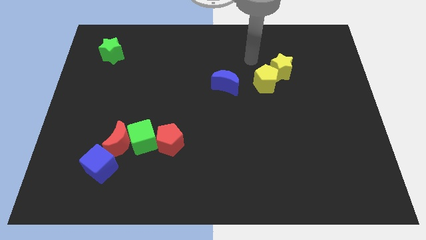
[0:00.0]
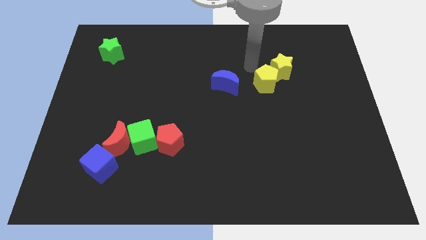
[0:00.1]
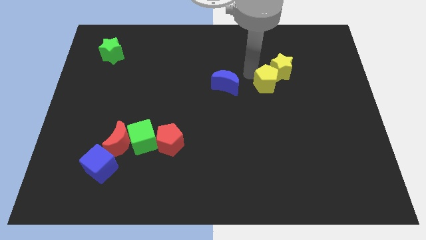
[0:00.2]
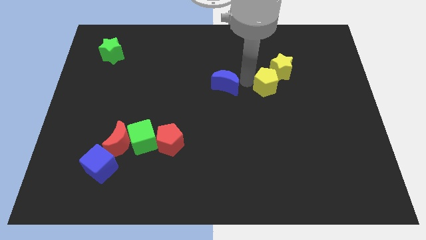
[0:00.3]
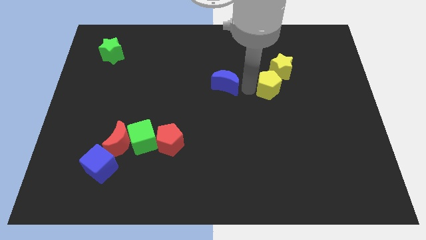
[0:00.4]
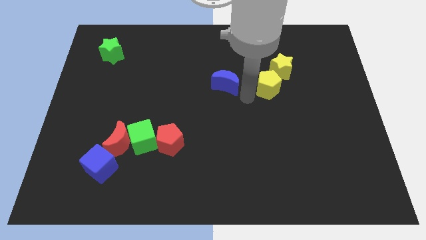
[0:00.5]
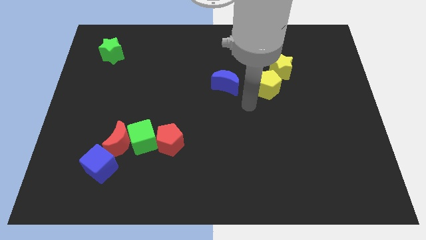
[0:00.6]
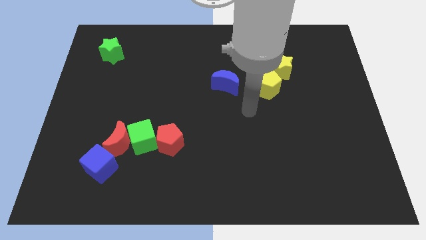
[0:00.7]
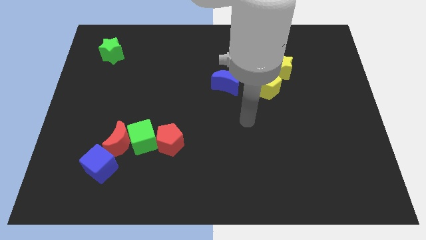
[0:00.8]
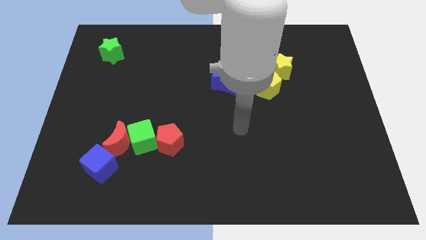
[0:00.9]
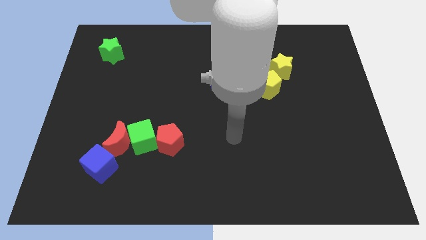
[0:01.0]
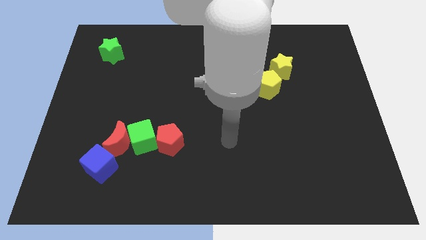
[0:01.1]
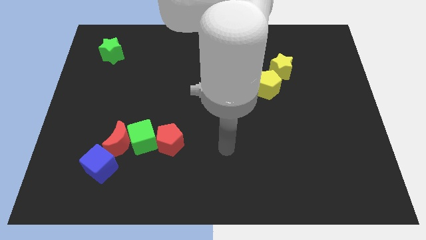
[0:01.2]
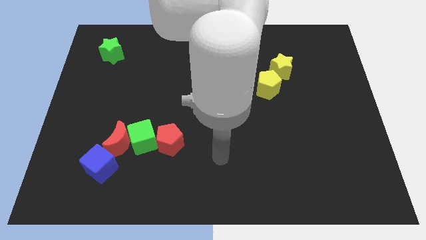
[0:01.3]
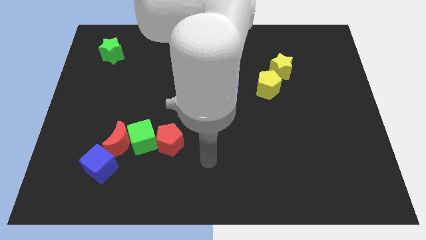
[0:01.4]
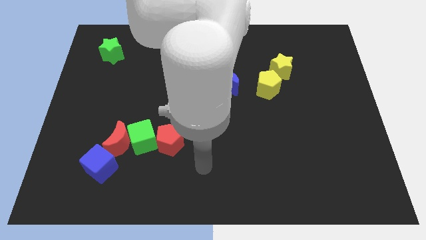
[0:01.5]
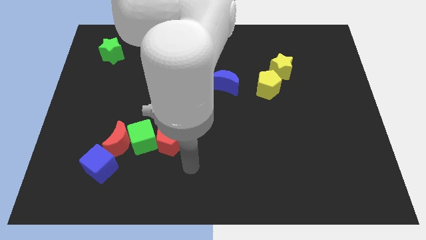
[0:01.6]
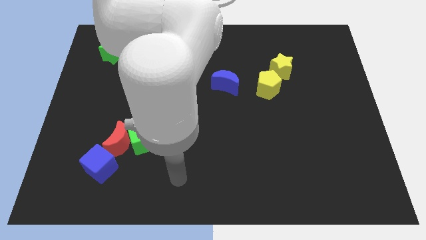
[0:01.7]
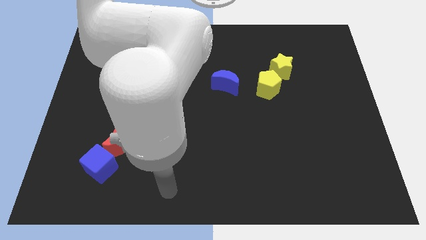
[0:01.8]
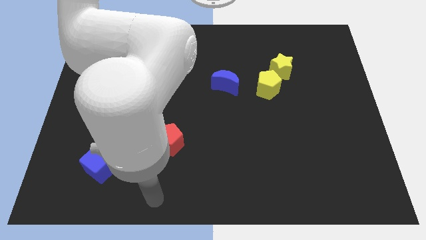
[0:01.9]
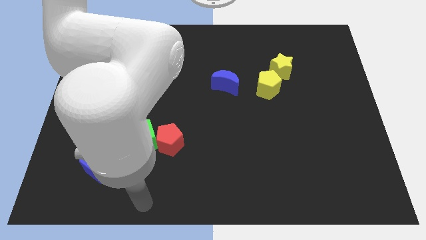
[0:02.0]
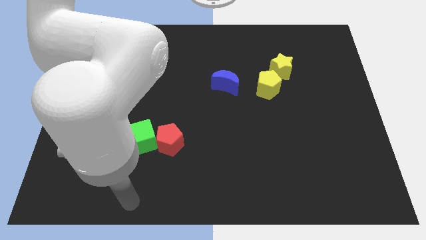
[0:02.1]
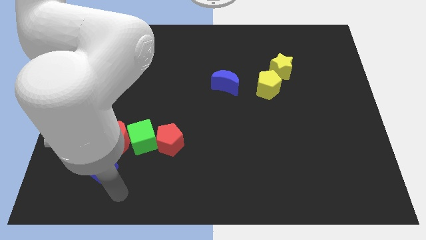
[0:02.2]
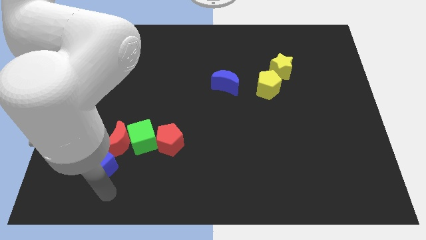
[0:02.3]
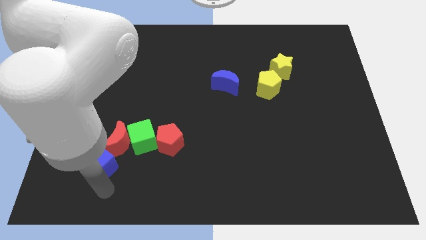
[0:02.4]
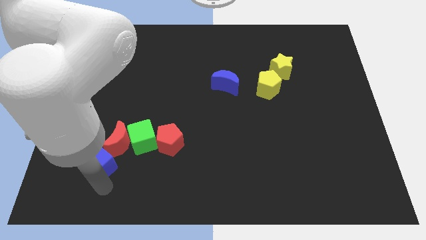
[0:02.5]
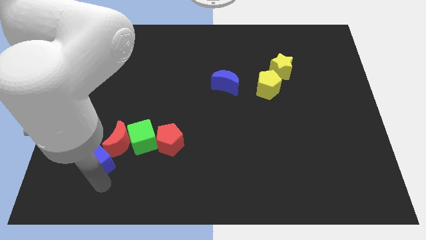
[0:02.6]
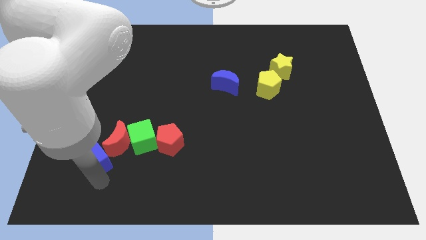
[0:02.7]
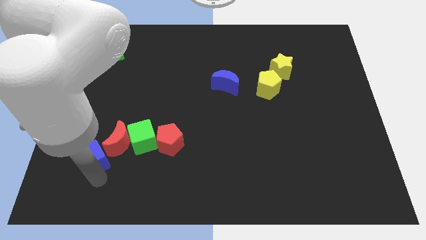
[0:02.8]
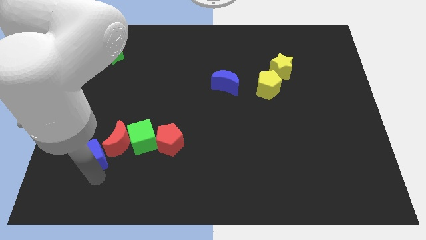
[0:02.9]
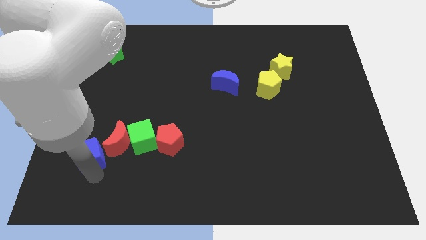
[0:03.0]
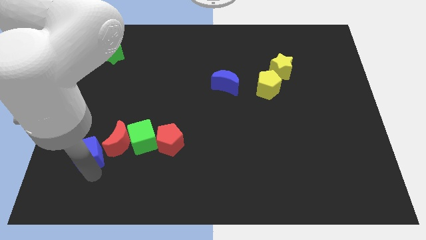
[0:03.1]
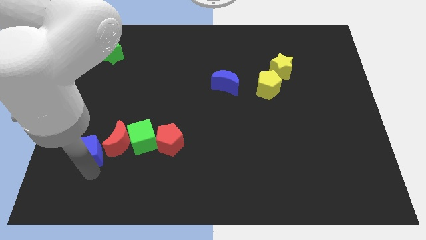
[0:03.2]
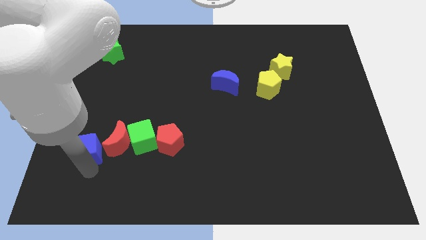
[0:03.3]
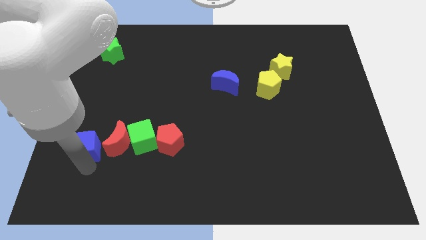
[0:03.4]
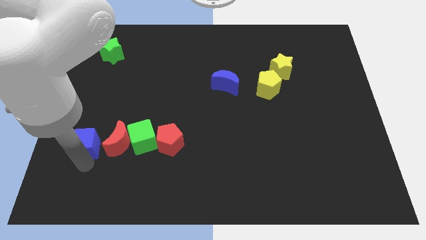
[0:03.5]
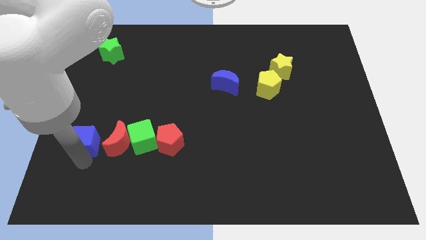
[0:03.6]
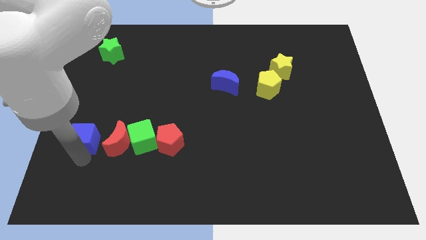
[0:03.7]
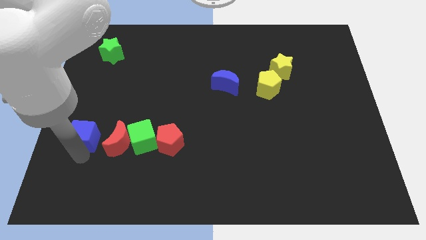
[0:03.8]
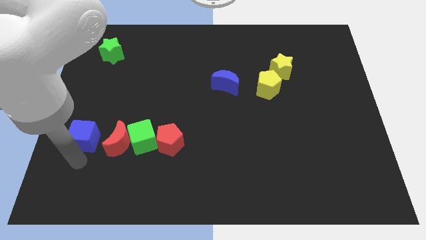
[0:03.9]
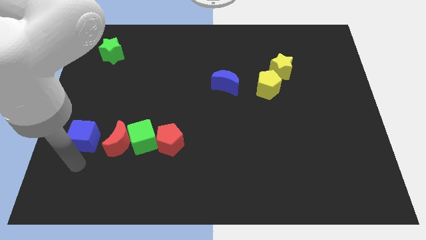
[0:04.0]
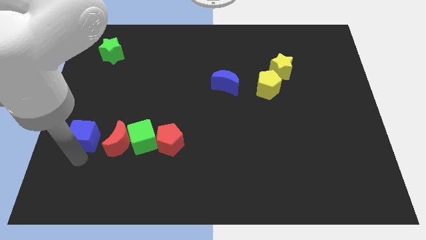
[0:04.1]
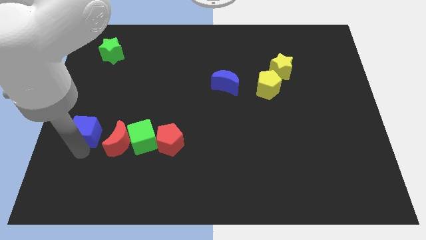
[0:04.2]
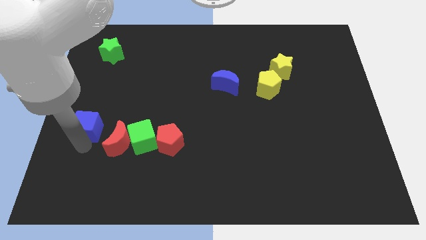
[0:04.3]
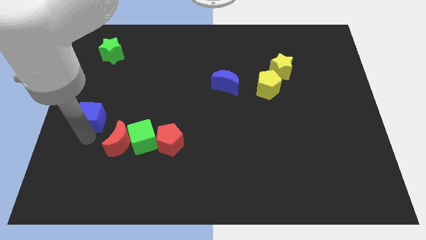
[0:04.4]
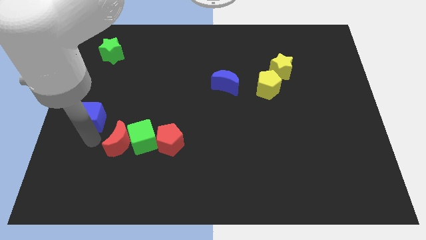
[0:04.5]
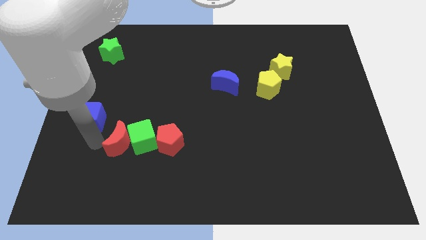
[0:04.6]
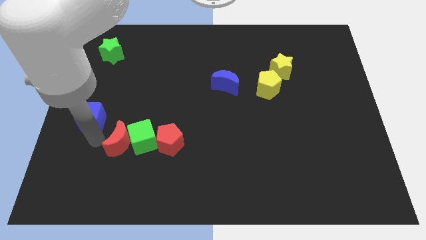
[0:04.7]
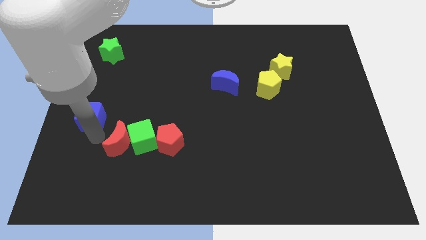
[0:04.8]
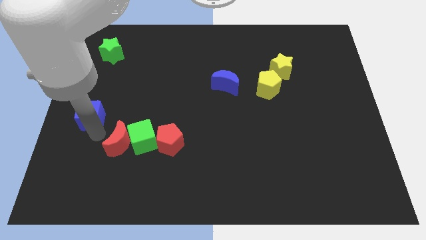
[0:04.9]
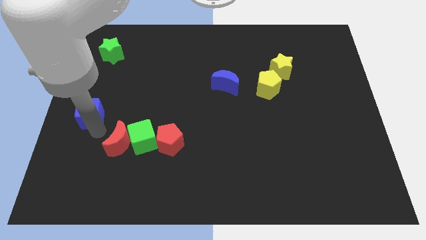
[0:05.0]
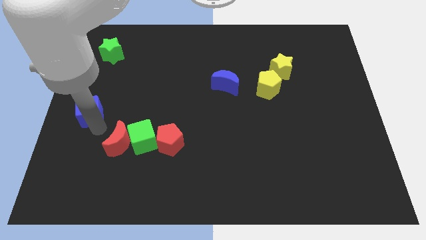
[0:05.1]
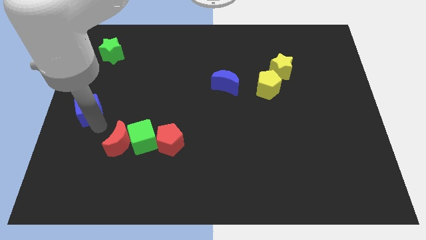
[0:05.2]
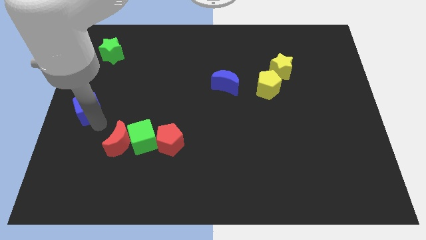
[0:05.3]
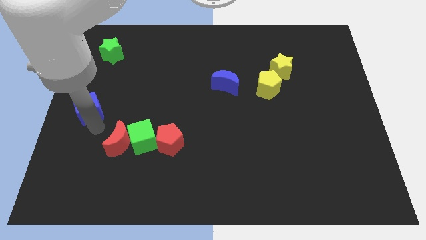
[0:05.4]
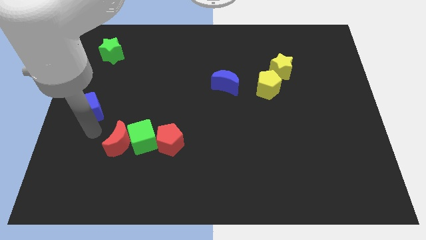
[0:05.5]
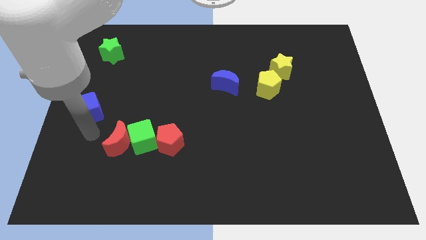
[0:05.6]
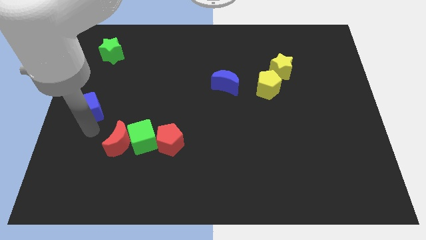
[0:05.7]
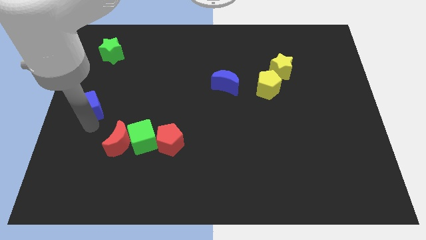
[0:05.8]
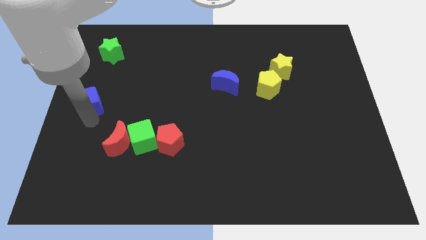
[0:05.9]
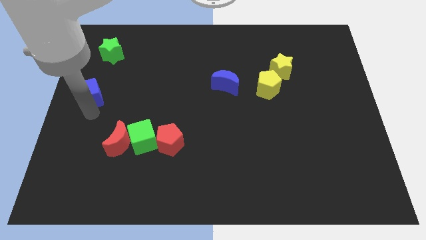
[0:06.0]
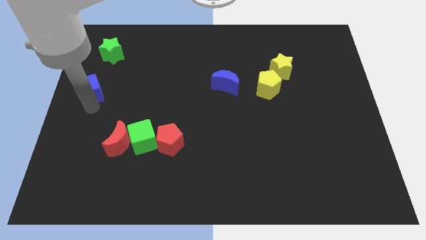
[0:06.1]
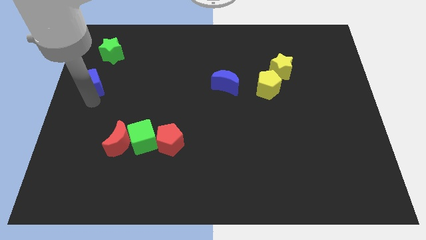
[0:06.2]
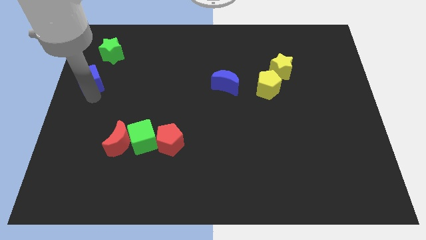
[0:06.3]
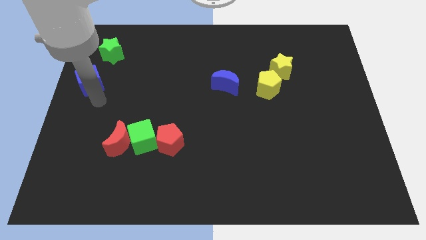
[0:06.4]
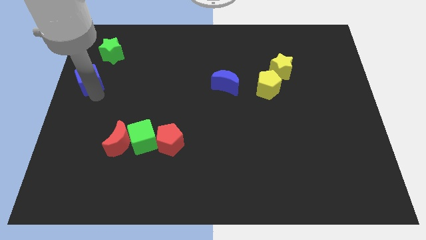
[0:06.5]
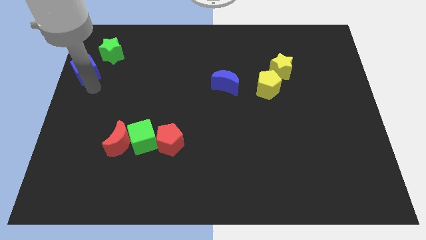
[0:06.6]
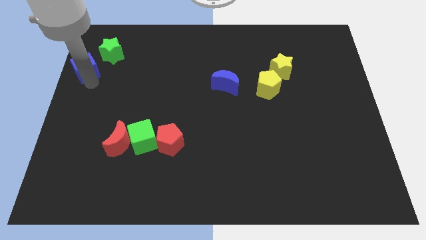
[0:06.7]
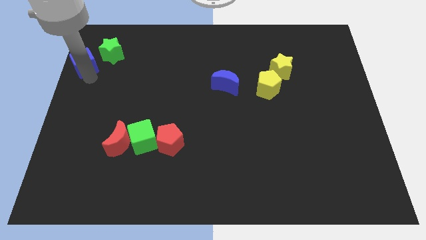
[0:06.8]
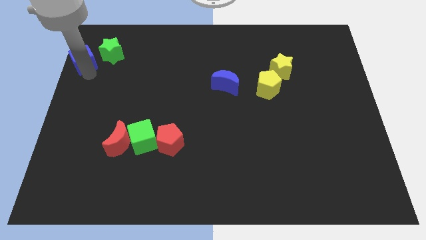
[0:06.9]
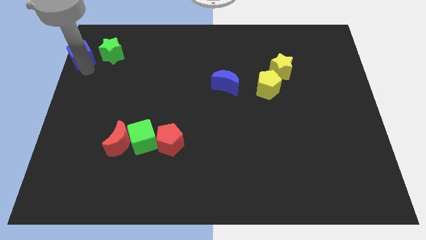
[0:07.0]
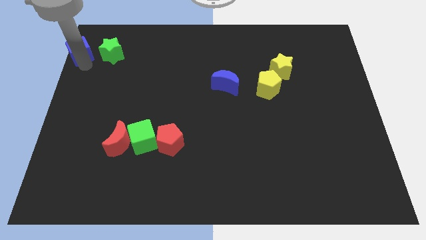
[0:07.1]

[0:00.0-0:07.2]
move the blue cube to the top left of the board
